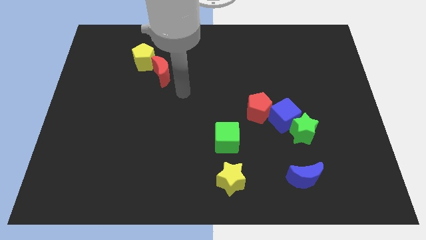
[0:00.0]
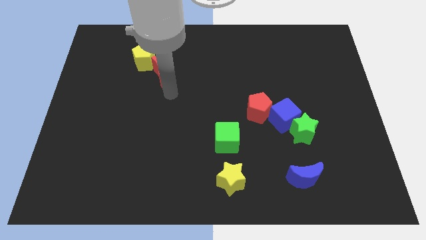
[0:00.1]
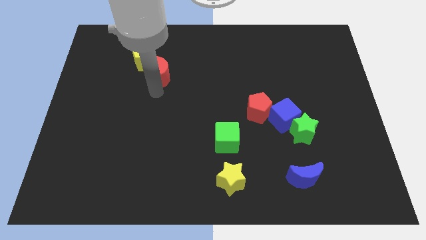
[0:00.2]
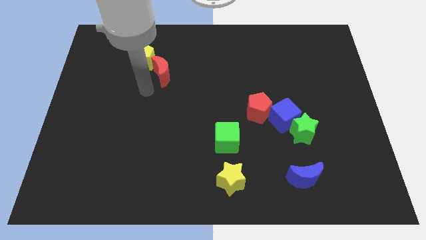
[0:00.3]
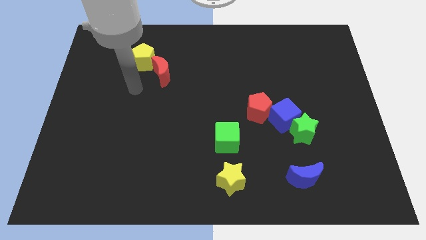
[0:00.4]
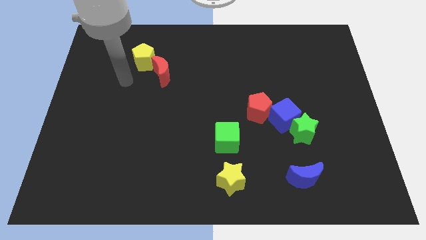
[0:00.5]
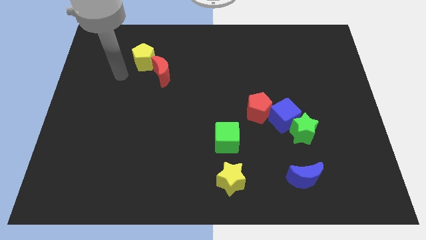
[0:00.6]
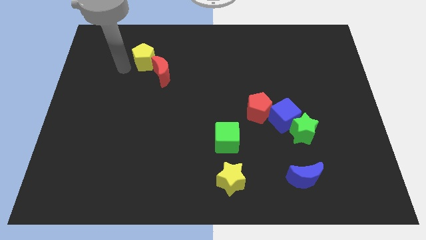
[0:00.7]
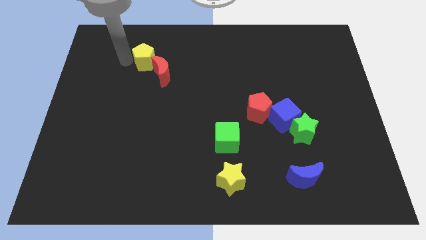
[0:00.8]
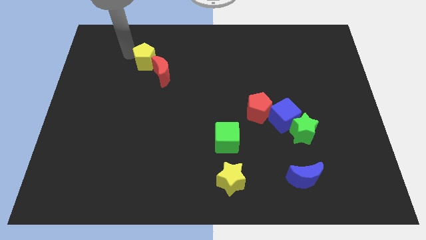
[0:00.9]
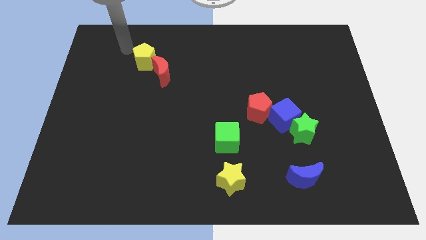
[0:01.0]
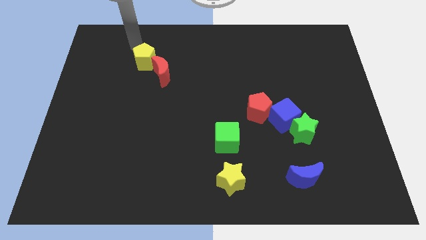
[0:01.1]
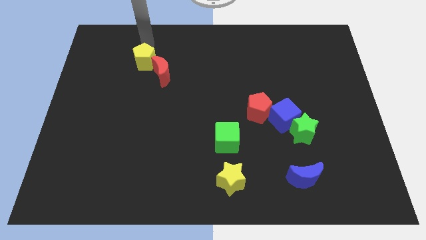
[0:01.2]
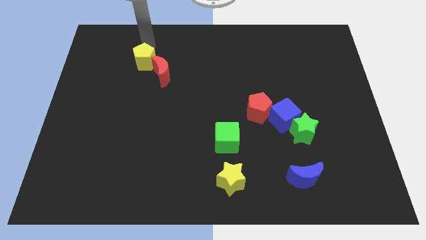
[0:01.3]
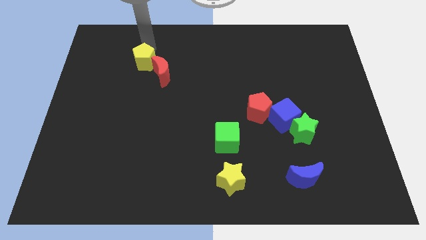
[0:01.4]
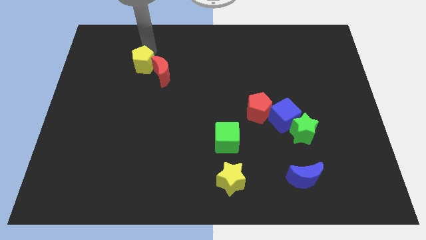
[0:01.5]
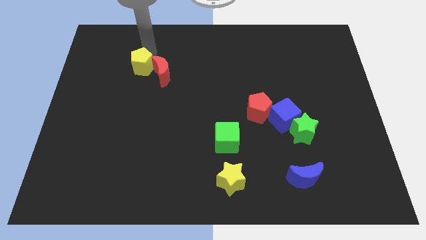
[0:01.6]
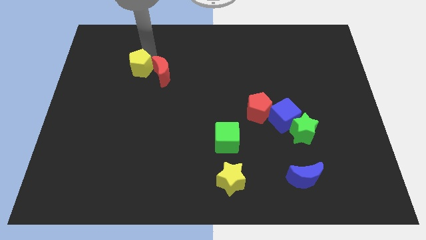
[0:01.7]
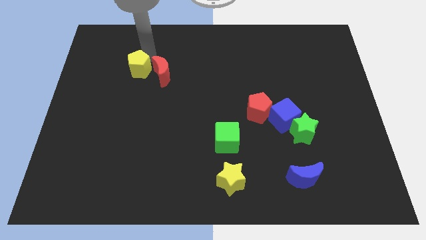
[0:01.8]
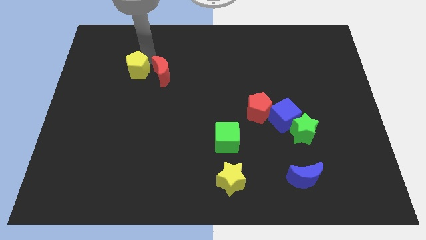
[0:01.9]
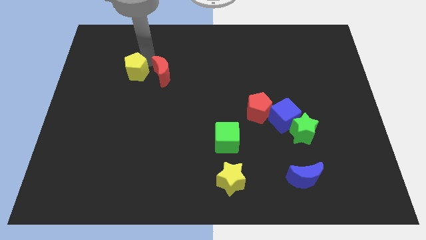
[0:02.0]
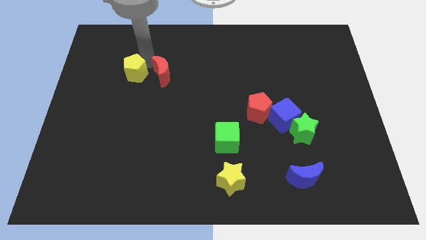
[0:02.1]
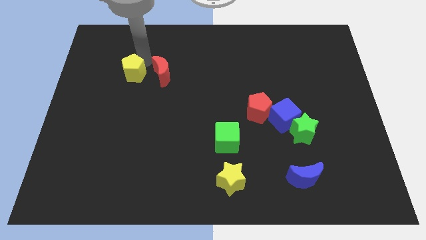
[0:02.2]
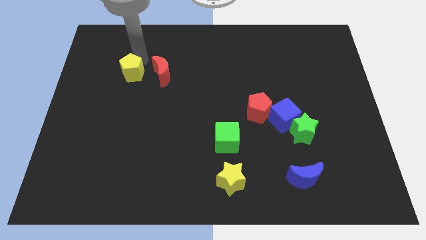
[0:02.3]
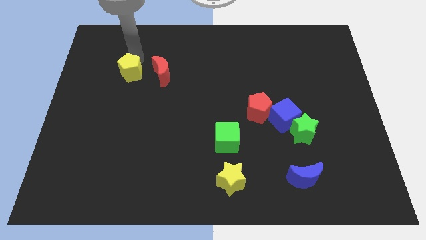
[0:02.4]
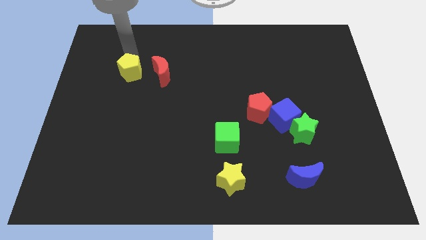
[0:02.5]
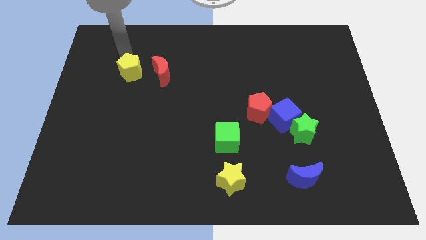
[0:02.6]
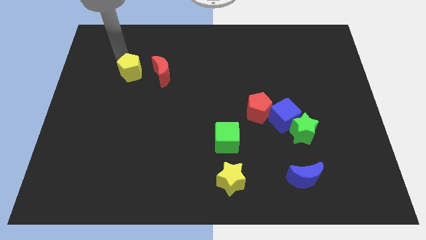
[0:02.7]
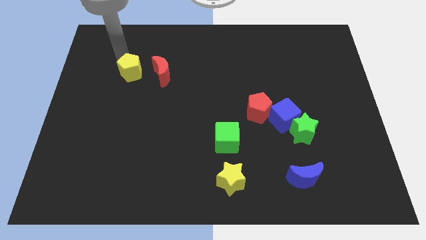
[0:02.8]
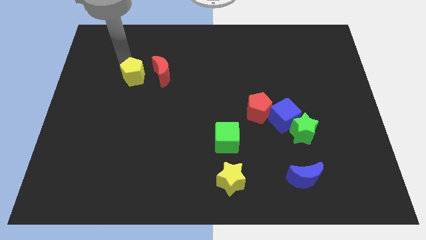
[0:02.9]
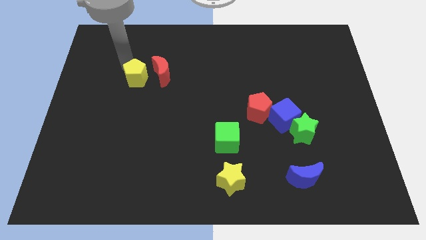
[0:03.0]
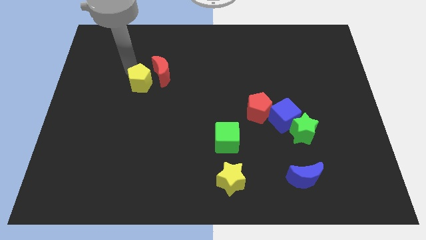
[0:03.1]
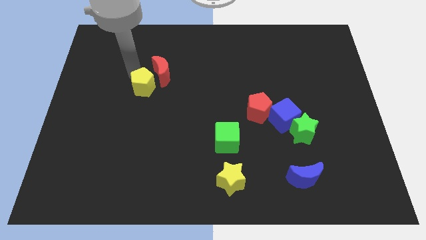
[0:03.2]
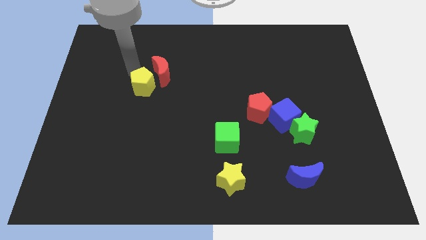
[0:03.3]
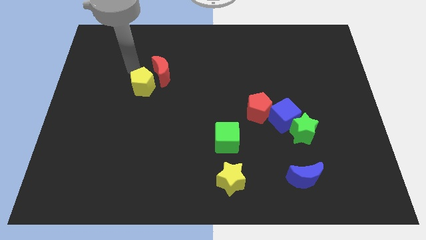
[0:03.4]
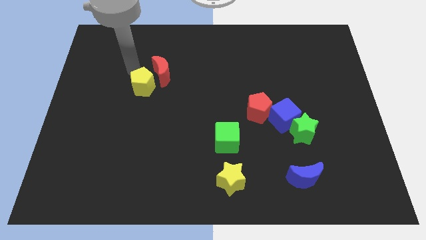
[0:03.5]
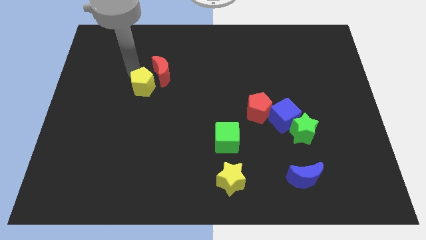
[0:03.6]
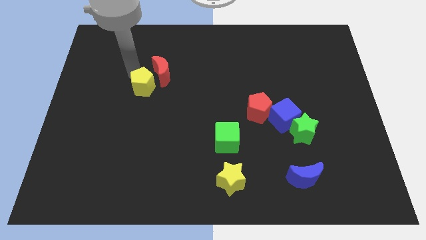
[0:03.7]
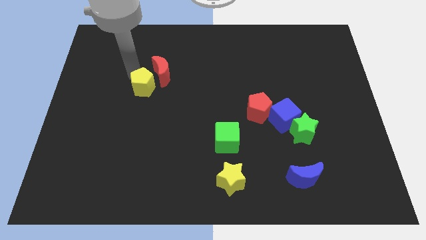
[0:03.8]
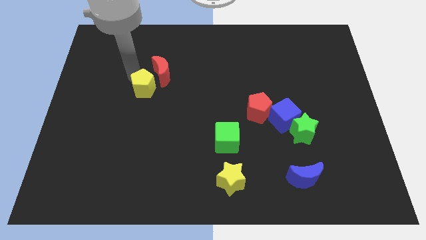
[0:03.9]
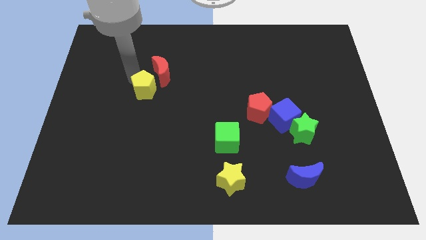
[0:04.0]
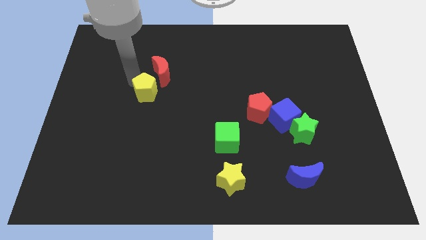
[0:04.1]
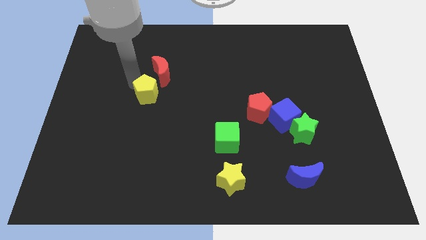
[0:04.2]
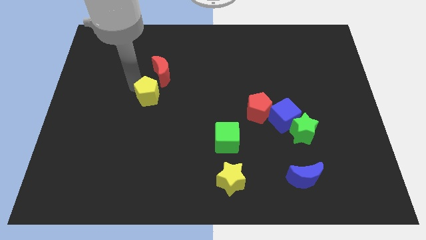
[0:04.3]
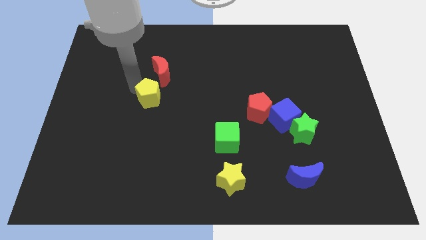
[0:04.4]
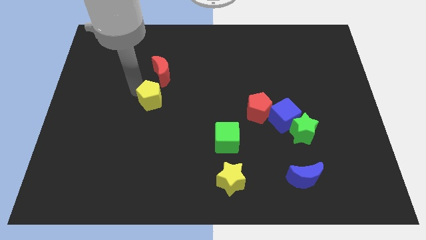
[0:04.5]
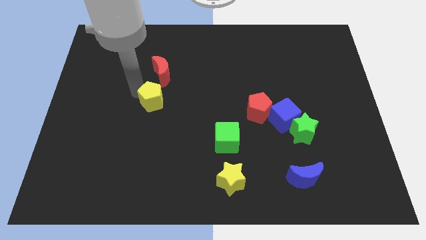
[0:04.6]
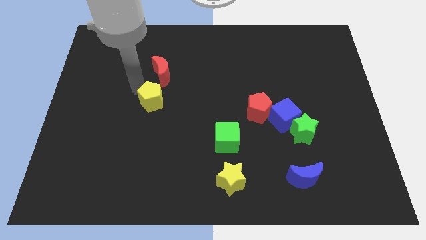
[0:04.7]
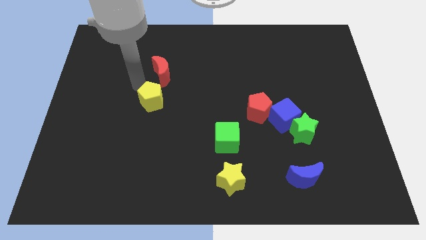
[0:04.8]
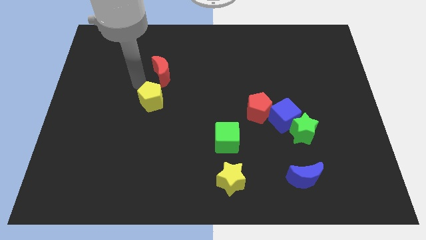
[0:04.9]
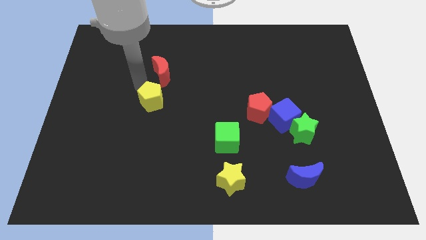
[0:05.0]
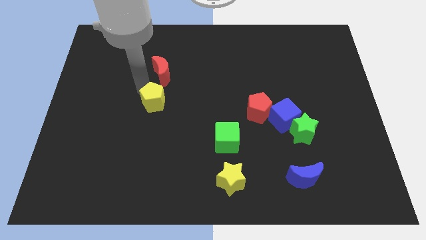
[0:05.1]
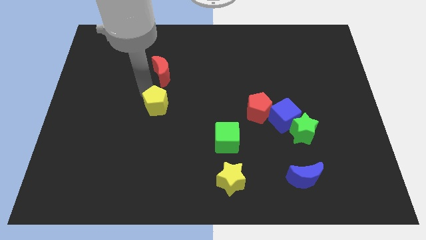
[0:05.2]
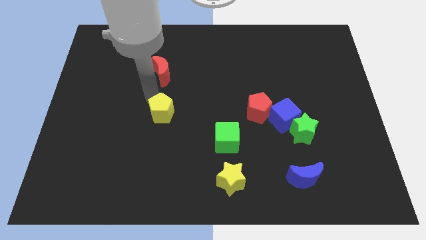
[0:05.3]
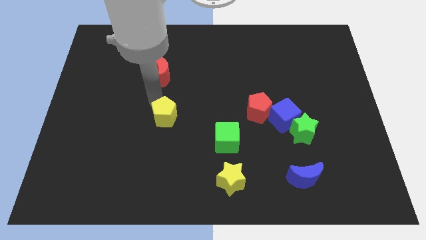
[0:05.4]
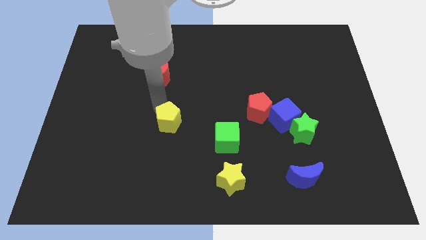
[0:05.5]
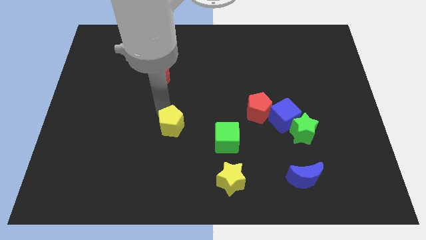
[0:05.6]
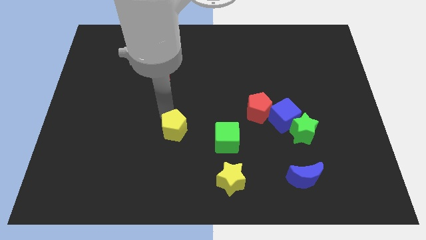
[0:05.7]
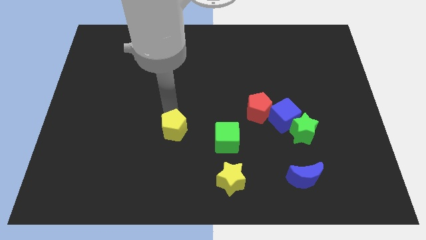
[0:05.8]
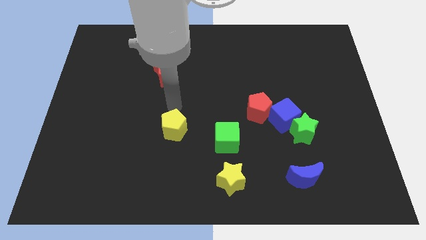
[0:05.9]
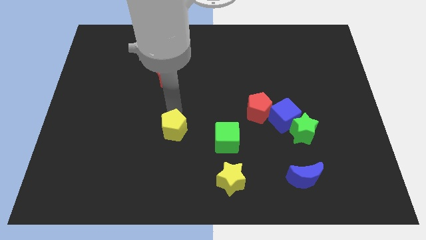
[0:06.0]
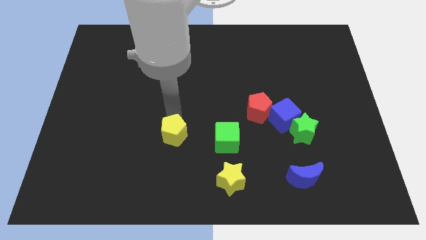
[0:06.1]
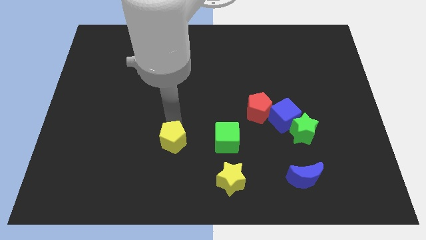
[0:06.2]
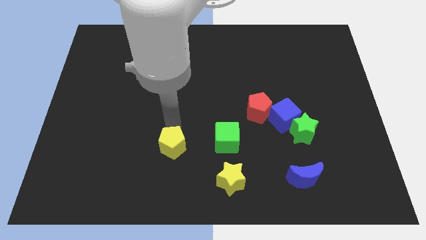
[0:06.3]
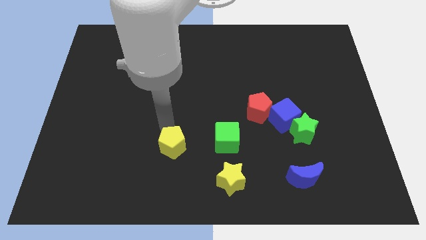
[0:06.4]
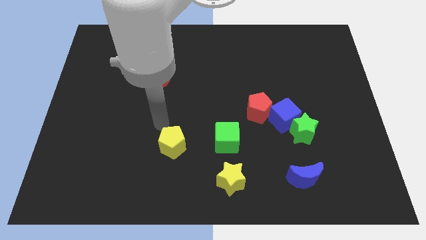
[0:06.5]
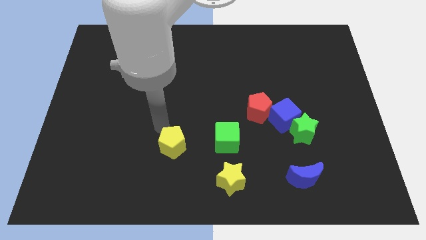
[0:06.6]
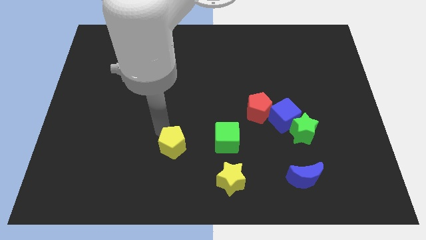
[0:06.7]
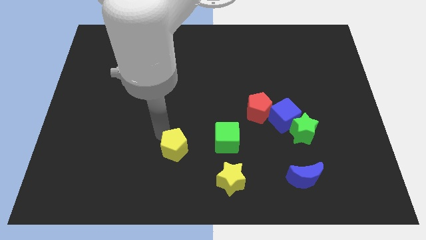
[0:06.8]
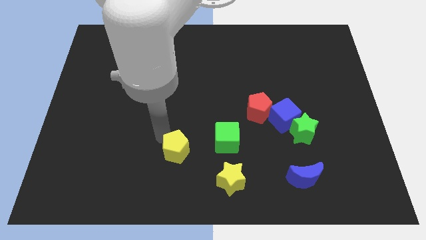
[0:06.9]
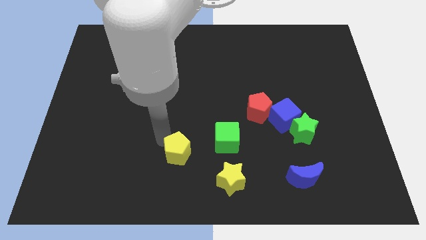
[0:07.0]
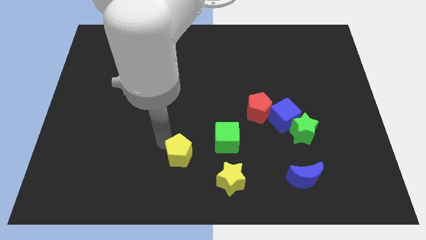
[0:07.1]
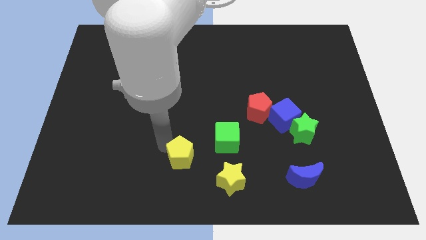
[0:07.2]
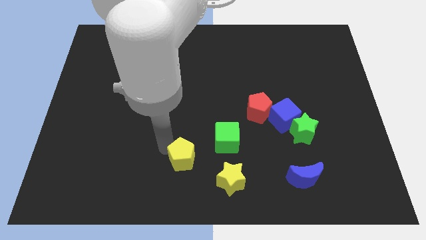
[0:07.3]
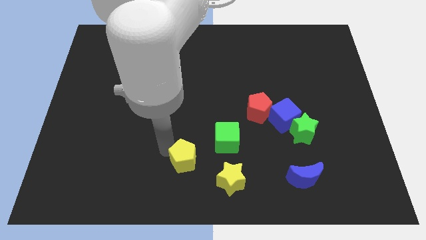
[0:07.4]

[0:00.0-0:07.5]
slide the yellow pentagon to the bottom
